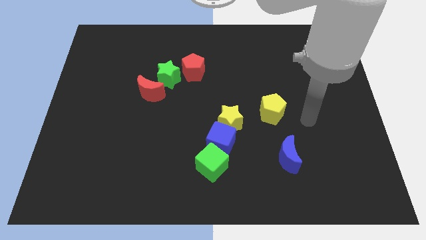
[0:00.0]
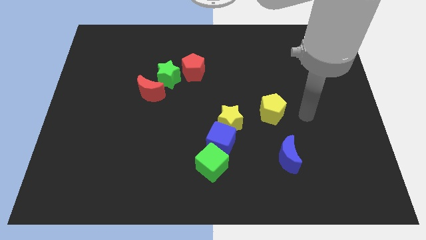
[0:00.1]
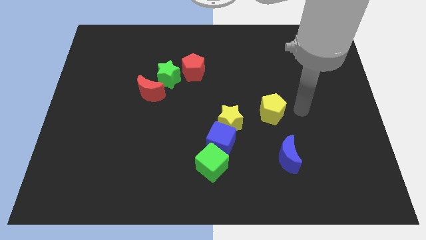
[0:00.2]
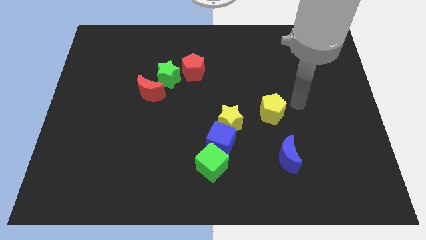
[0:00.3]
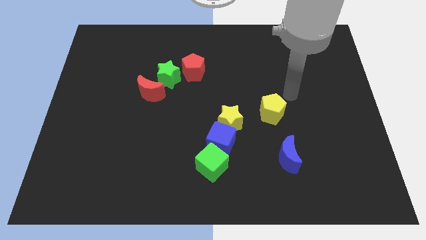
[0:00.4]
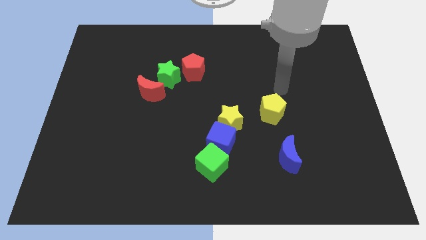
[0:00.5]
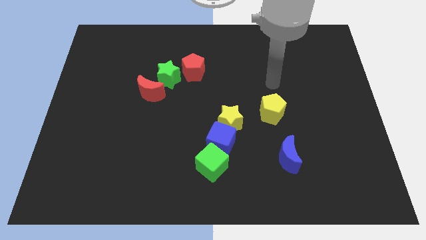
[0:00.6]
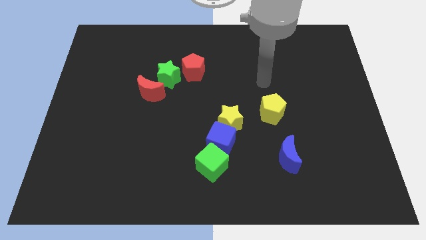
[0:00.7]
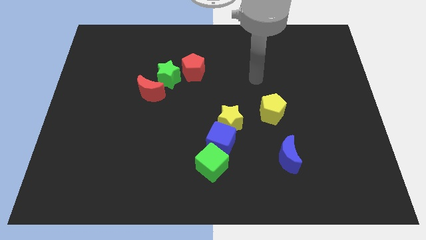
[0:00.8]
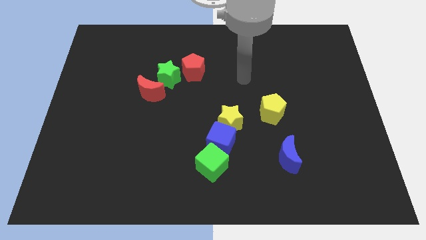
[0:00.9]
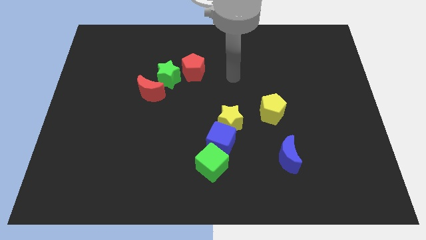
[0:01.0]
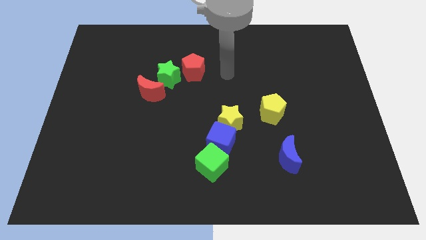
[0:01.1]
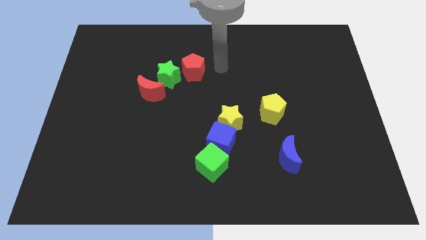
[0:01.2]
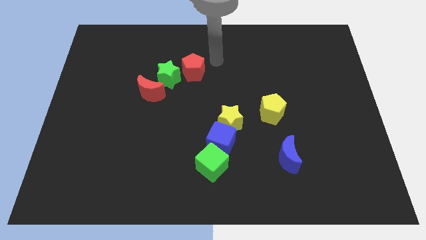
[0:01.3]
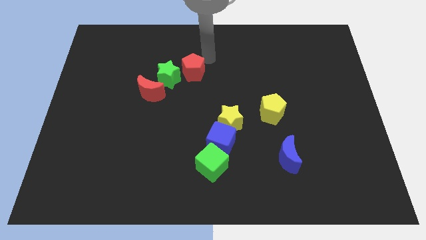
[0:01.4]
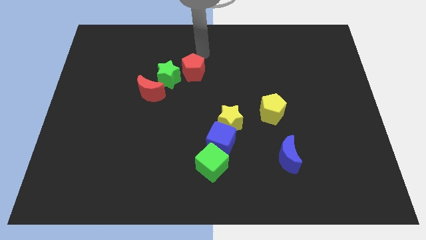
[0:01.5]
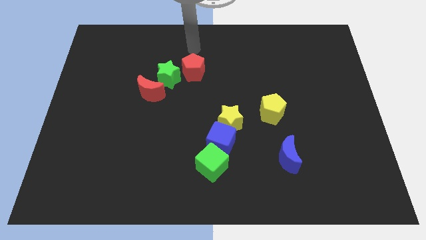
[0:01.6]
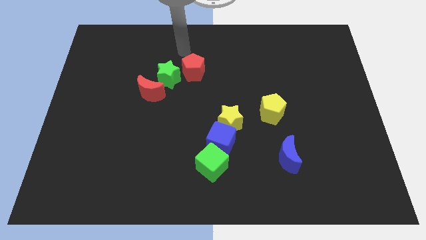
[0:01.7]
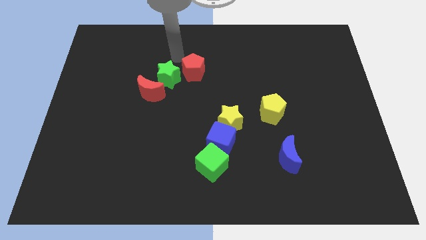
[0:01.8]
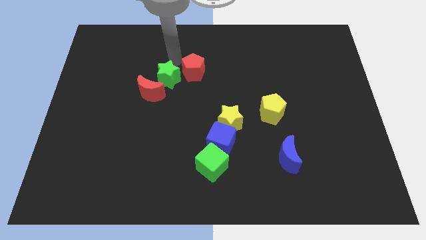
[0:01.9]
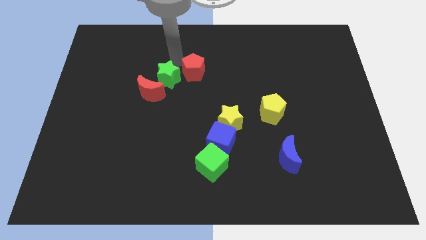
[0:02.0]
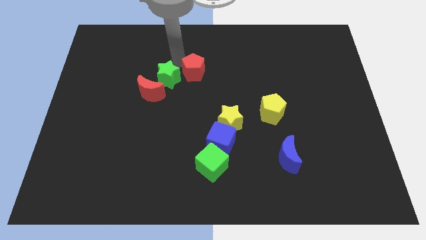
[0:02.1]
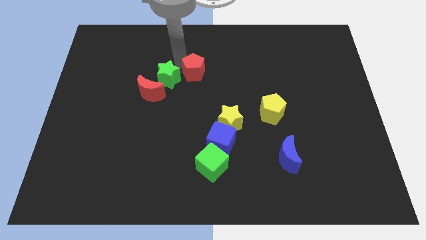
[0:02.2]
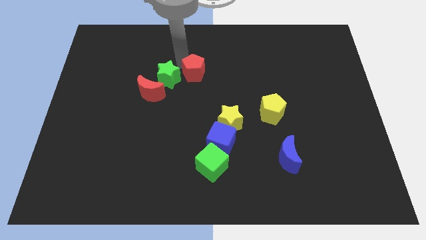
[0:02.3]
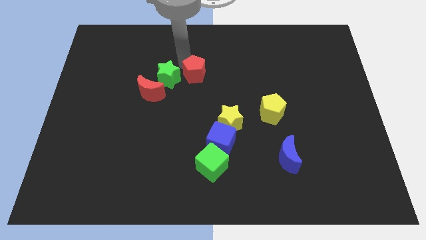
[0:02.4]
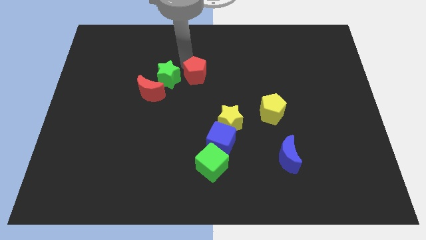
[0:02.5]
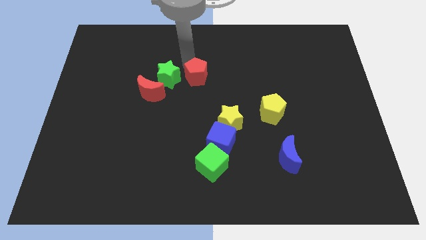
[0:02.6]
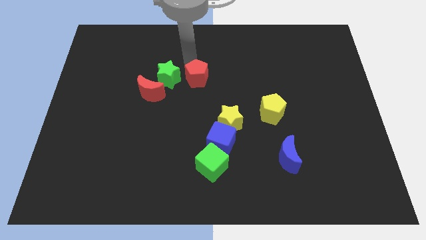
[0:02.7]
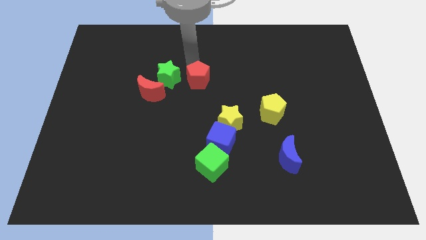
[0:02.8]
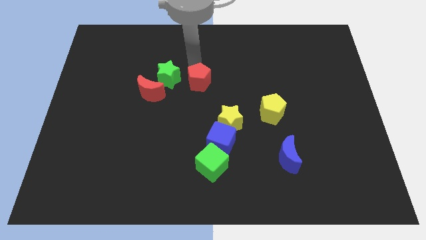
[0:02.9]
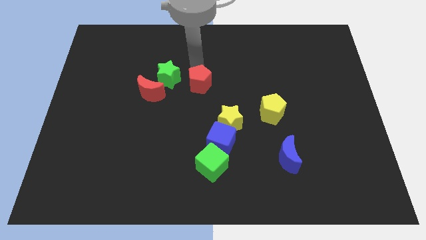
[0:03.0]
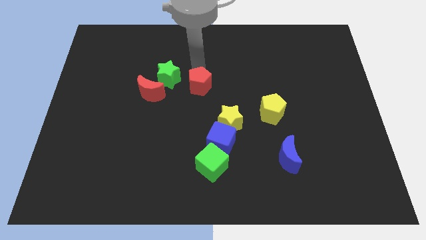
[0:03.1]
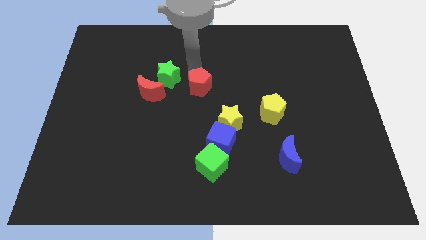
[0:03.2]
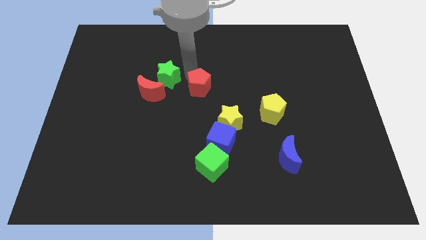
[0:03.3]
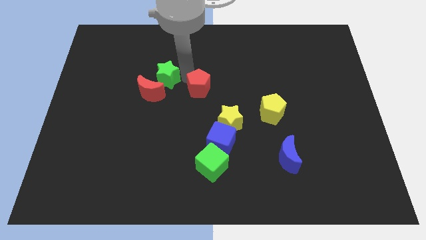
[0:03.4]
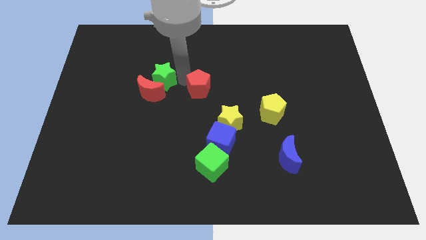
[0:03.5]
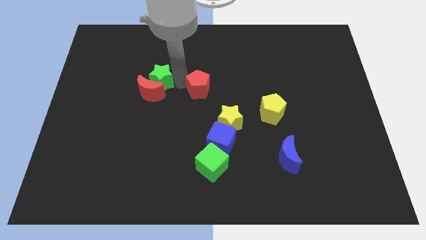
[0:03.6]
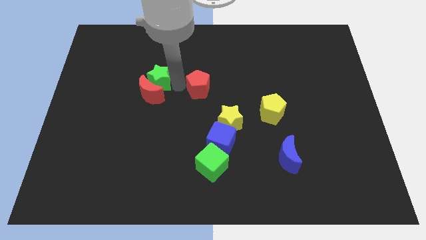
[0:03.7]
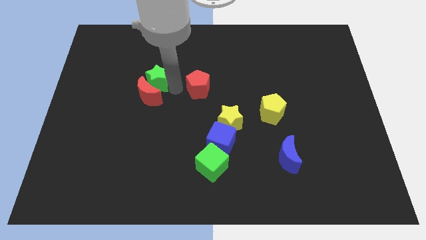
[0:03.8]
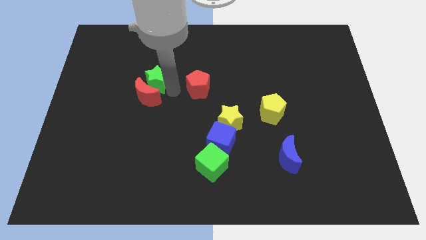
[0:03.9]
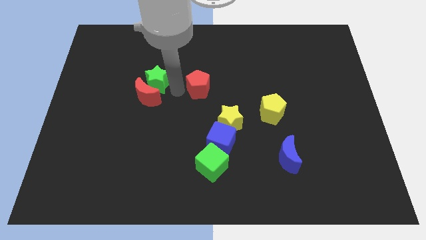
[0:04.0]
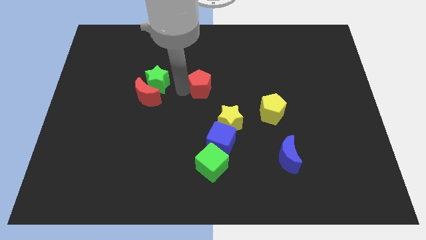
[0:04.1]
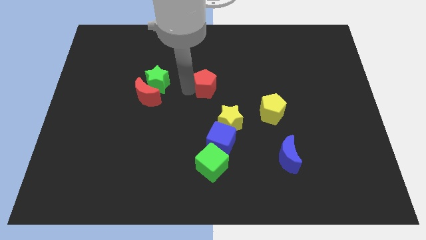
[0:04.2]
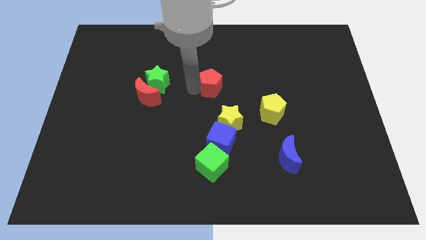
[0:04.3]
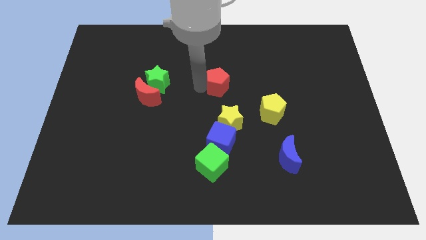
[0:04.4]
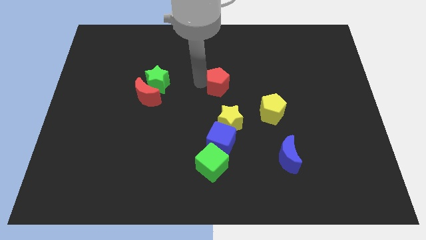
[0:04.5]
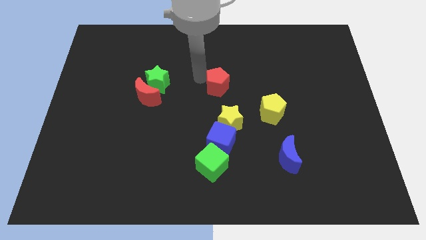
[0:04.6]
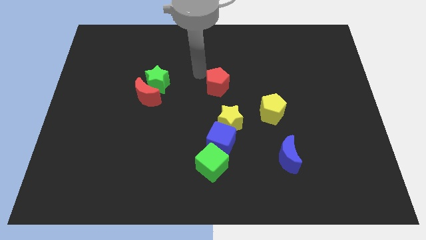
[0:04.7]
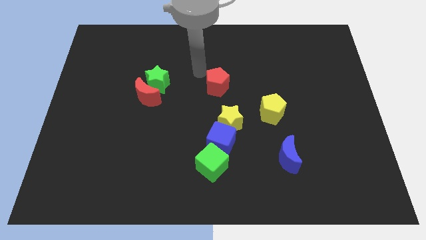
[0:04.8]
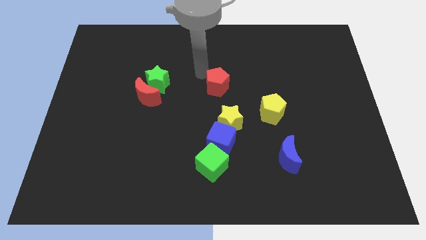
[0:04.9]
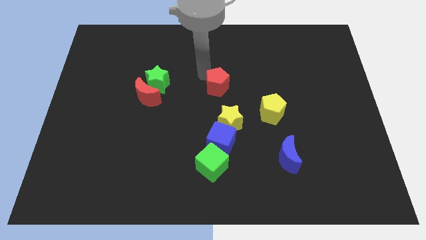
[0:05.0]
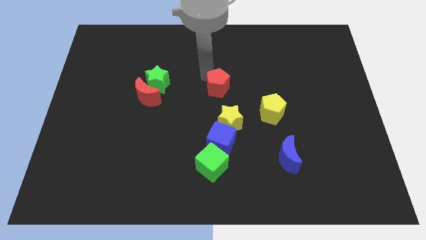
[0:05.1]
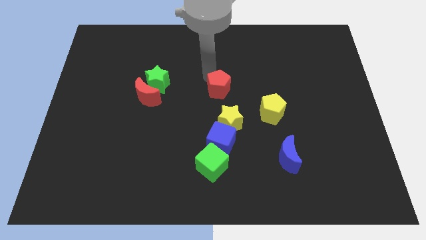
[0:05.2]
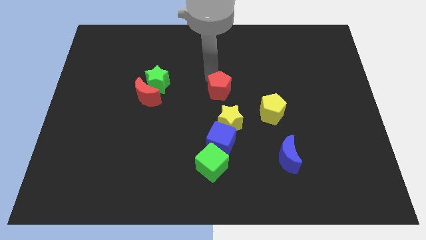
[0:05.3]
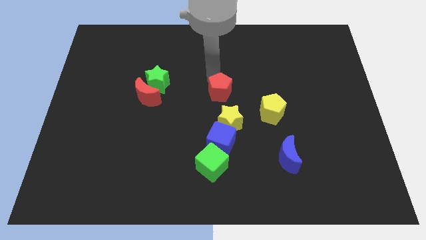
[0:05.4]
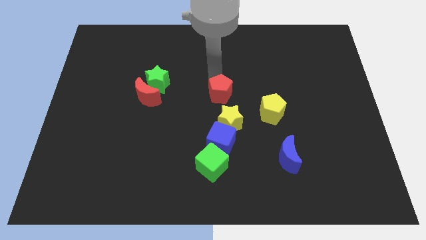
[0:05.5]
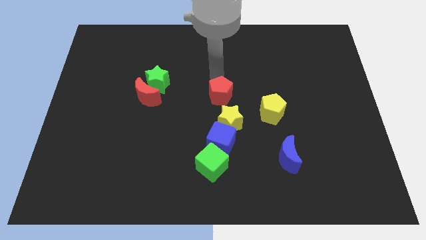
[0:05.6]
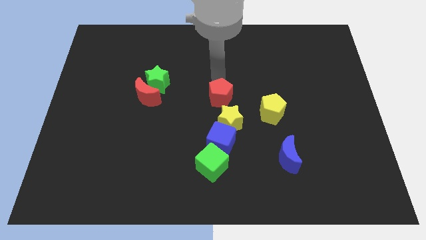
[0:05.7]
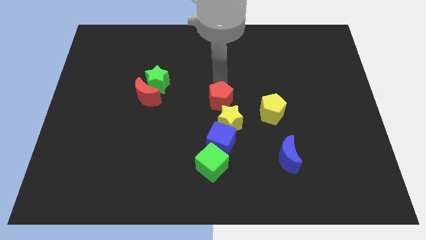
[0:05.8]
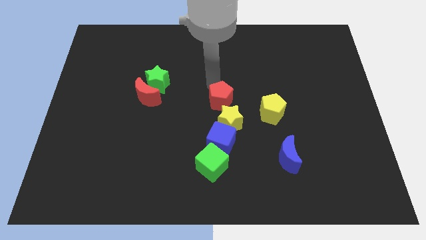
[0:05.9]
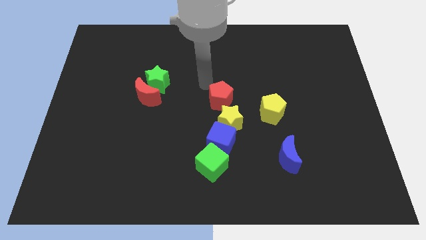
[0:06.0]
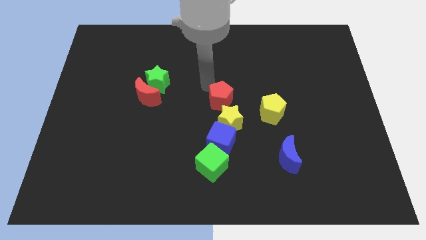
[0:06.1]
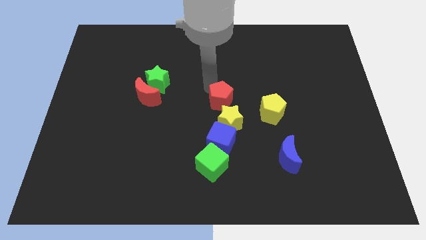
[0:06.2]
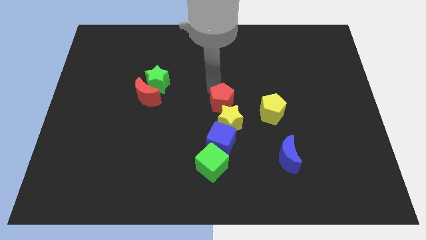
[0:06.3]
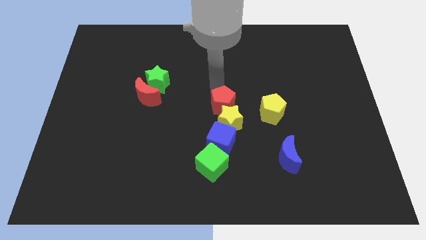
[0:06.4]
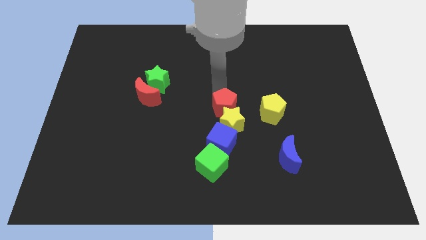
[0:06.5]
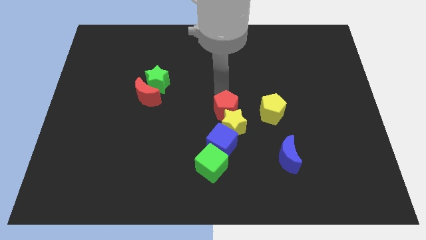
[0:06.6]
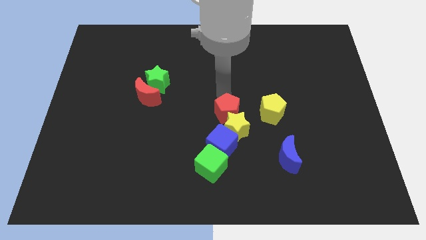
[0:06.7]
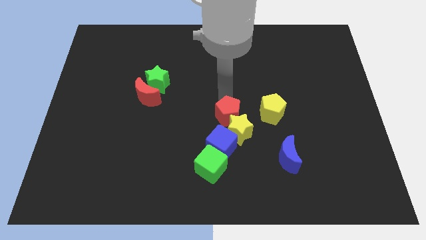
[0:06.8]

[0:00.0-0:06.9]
move the red pentagon diagonally up and to the right of the blue cube
